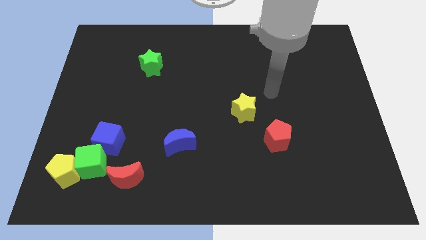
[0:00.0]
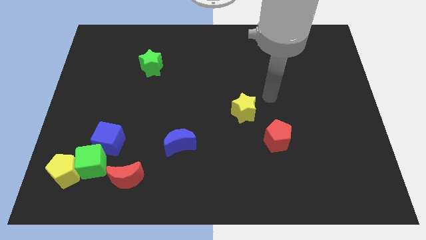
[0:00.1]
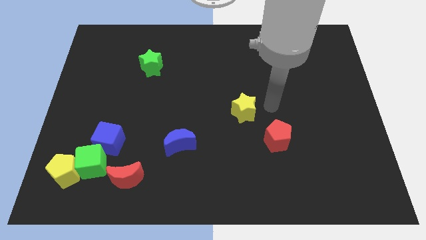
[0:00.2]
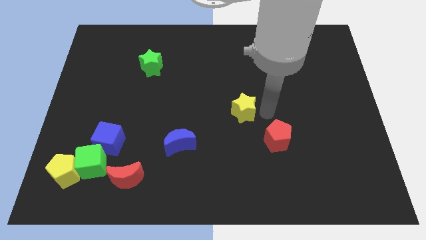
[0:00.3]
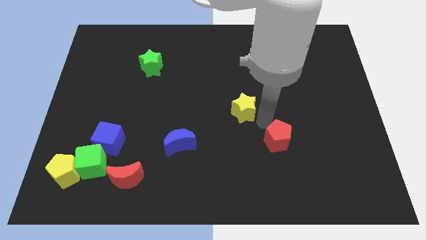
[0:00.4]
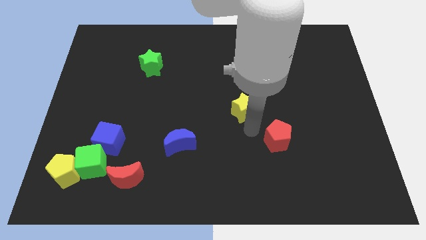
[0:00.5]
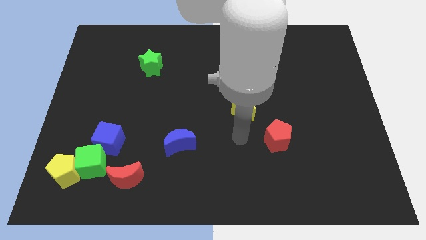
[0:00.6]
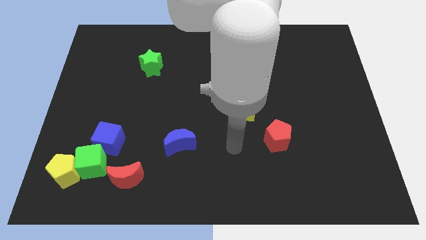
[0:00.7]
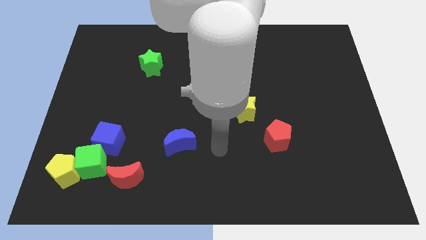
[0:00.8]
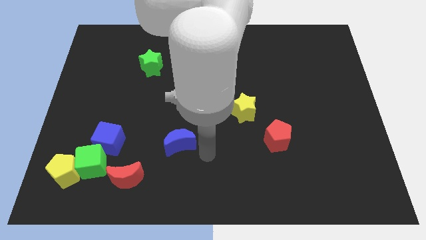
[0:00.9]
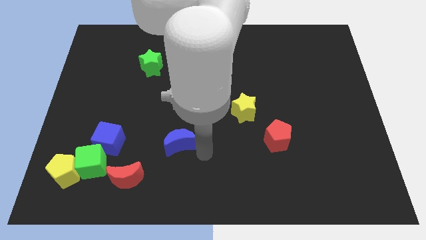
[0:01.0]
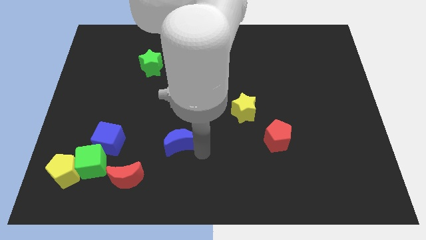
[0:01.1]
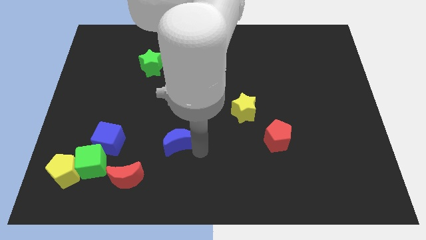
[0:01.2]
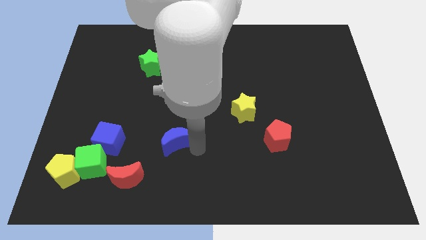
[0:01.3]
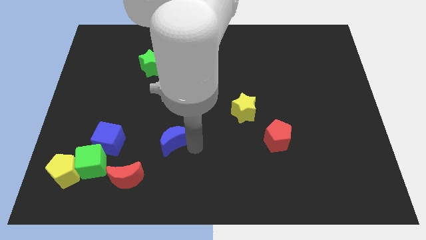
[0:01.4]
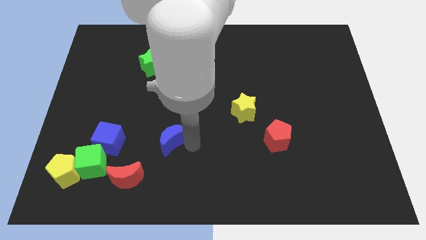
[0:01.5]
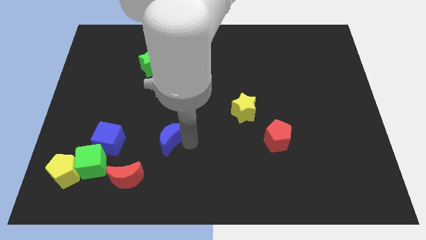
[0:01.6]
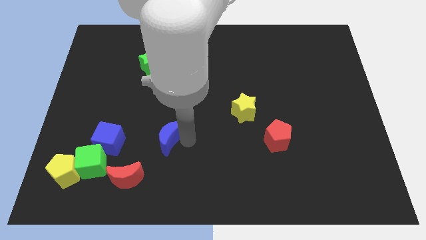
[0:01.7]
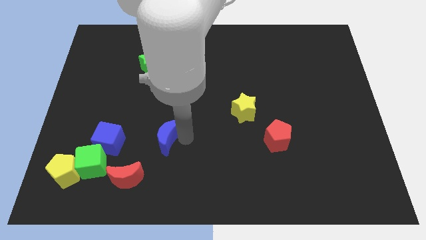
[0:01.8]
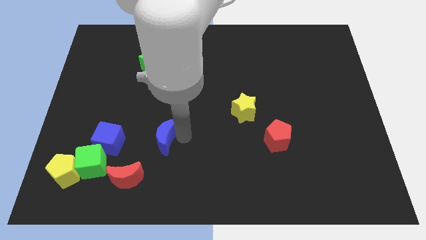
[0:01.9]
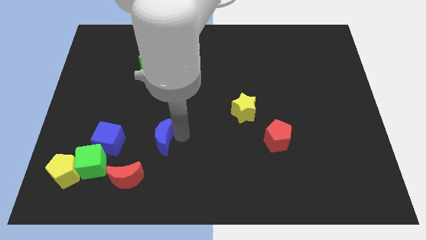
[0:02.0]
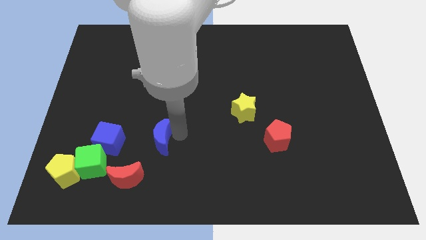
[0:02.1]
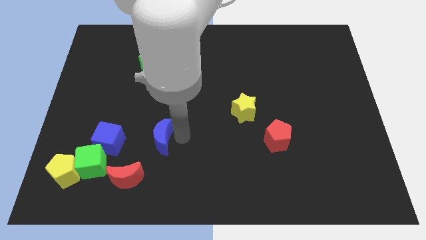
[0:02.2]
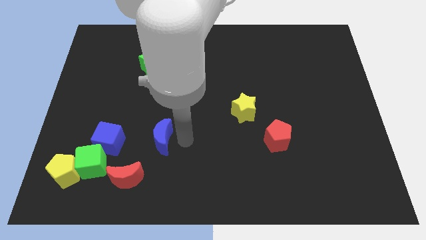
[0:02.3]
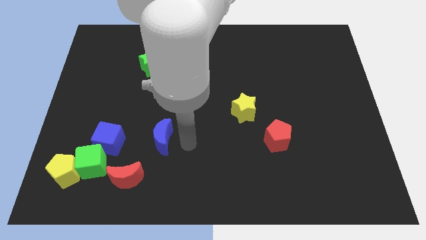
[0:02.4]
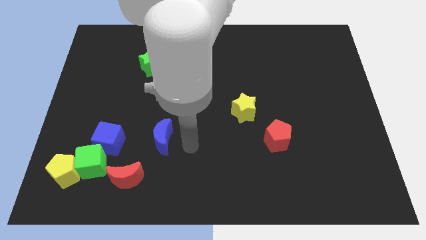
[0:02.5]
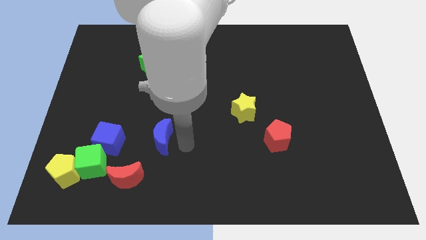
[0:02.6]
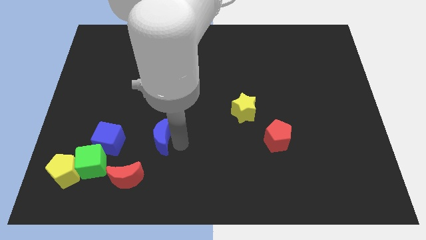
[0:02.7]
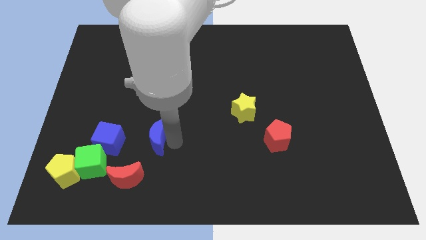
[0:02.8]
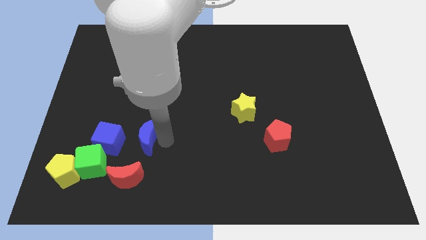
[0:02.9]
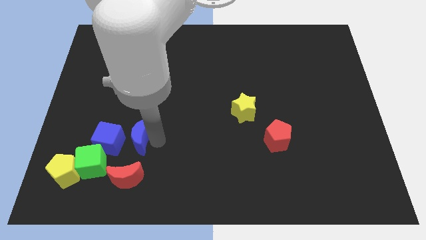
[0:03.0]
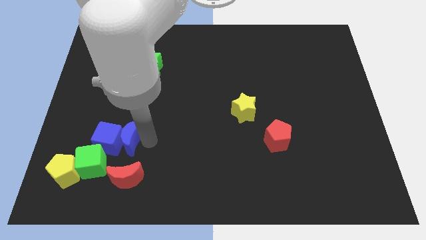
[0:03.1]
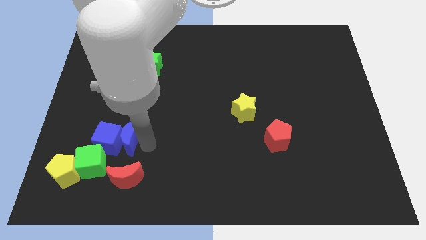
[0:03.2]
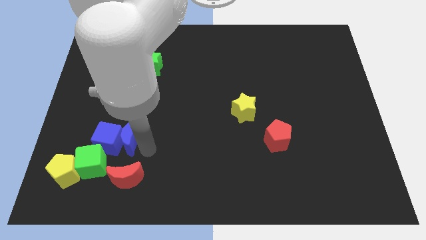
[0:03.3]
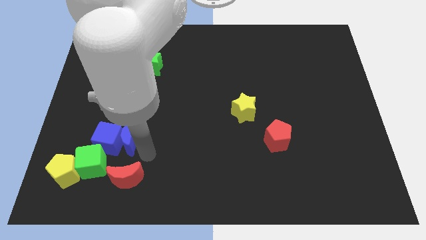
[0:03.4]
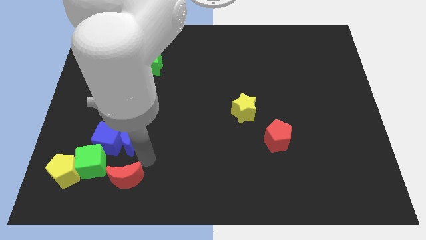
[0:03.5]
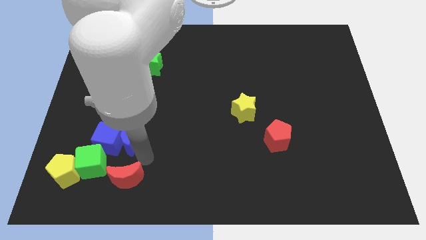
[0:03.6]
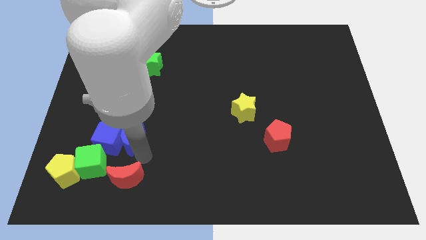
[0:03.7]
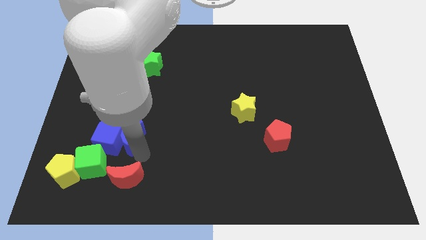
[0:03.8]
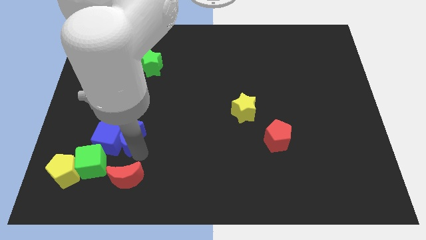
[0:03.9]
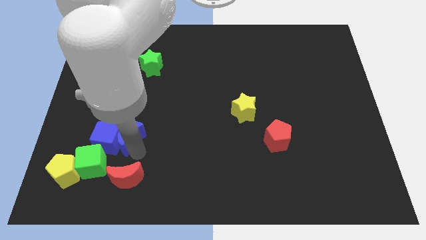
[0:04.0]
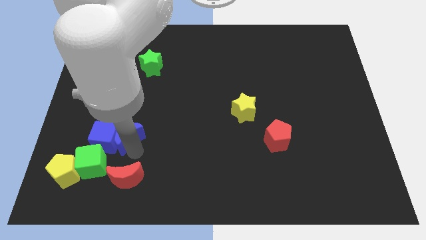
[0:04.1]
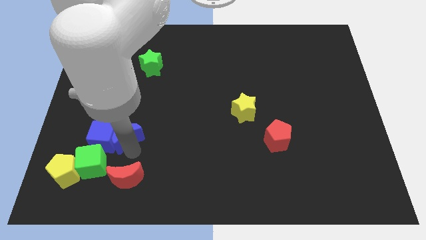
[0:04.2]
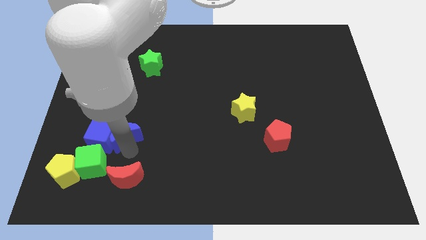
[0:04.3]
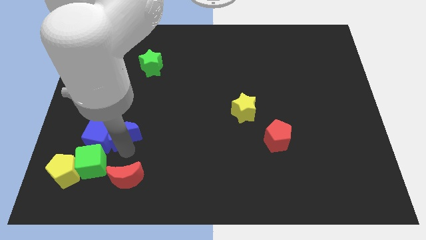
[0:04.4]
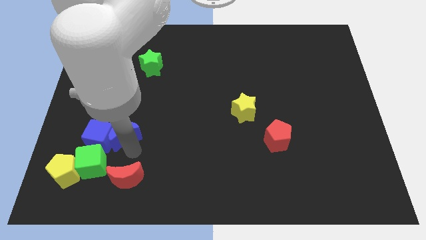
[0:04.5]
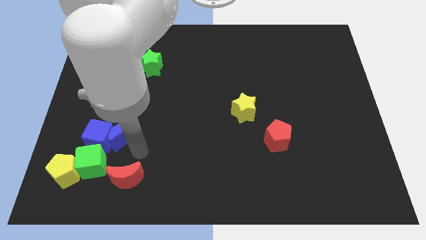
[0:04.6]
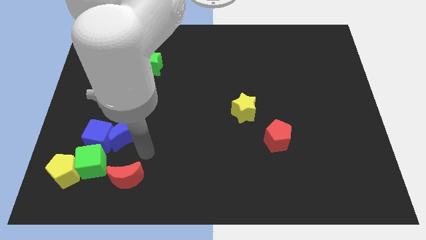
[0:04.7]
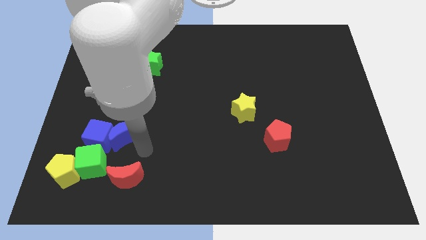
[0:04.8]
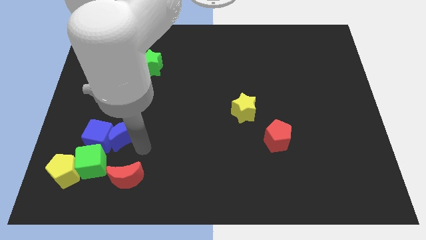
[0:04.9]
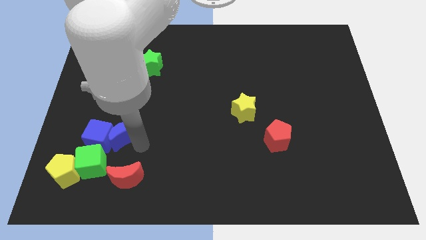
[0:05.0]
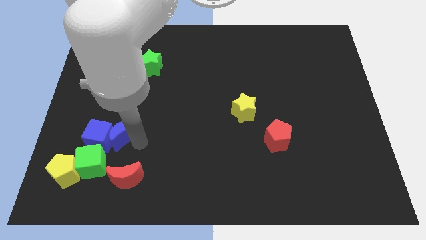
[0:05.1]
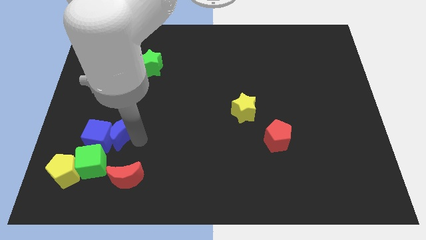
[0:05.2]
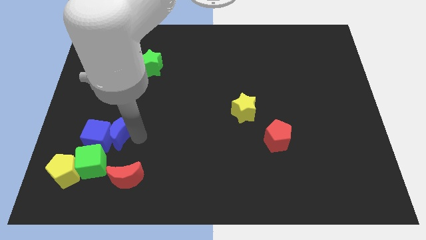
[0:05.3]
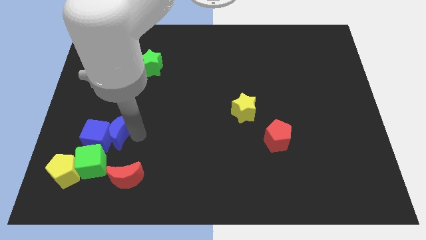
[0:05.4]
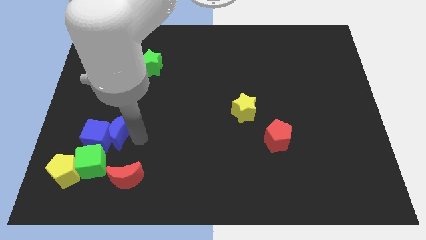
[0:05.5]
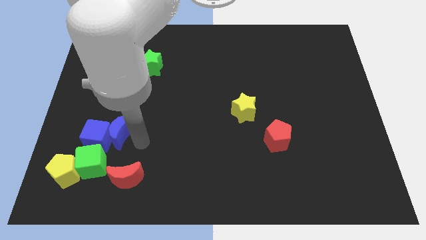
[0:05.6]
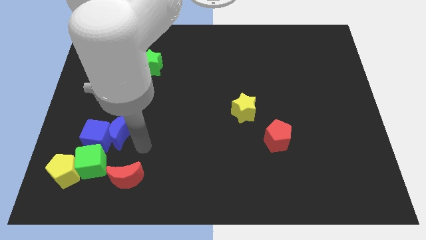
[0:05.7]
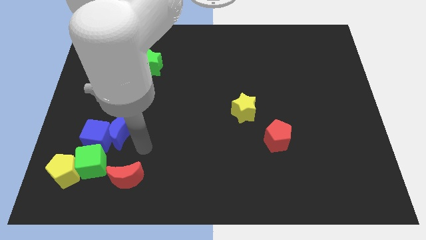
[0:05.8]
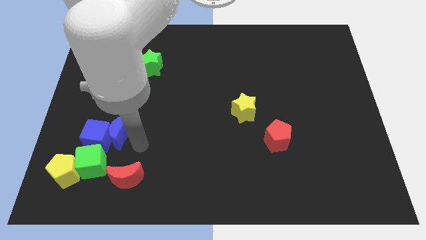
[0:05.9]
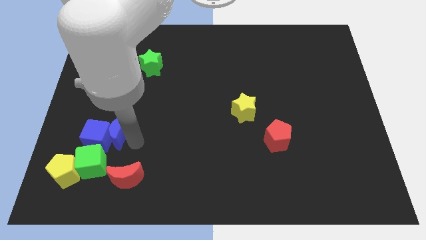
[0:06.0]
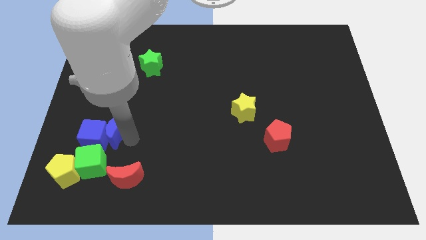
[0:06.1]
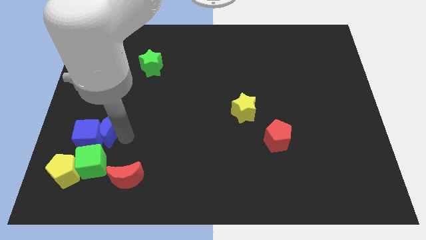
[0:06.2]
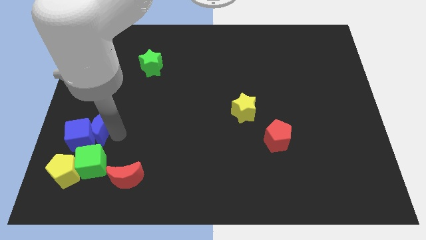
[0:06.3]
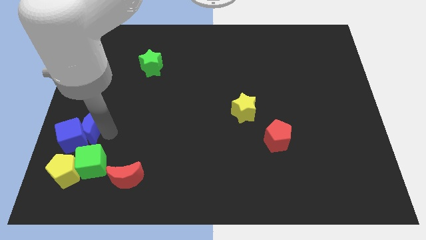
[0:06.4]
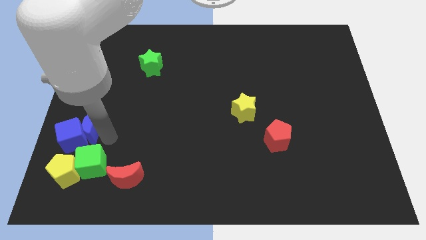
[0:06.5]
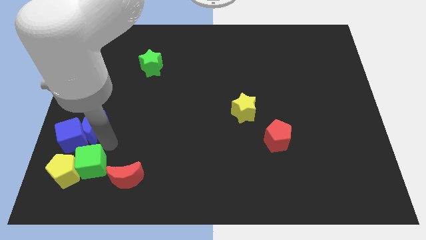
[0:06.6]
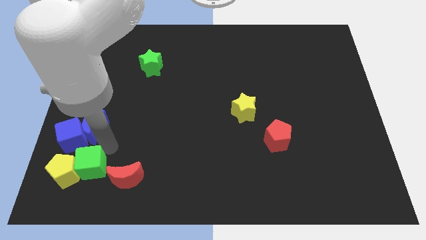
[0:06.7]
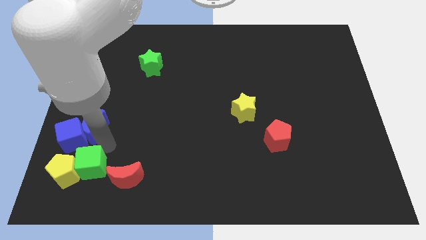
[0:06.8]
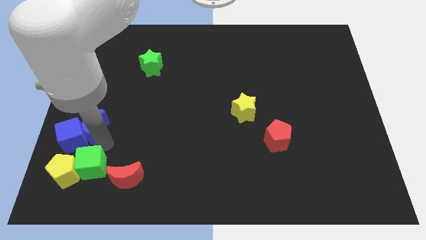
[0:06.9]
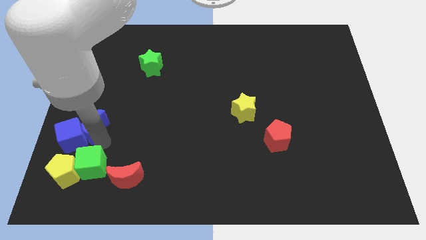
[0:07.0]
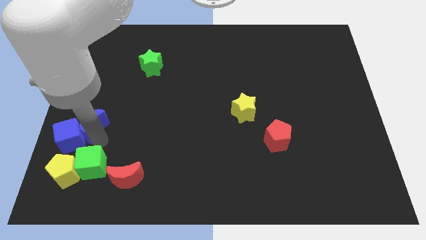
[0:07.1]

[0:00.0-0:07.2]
push the blue moon to the left side of the board
